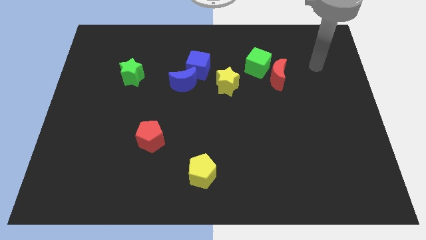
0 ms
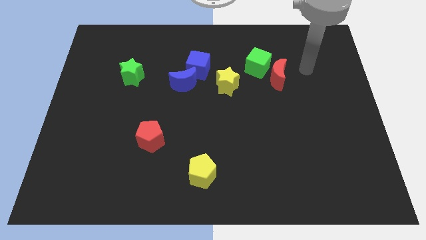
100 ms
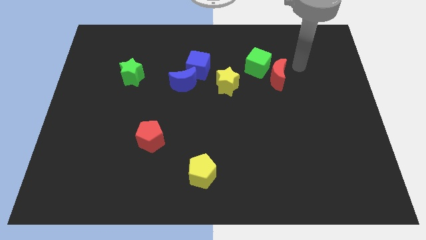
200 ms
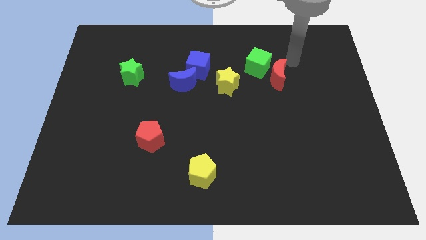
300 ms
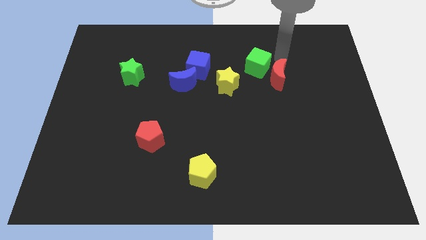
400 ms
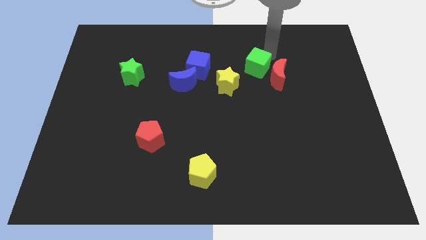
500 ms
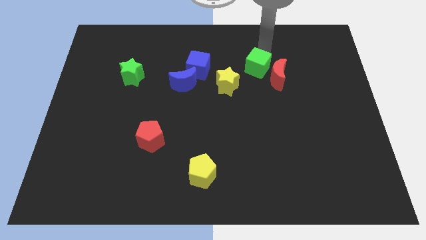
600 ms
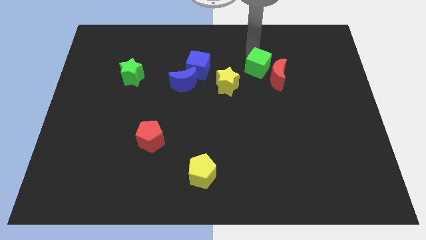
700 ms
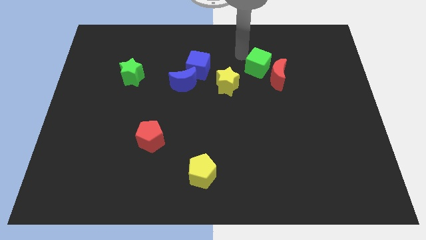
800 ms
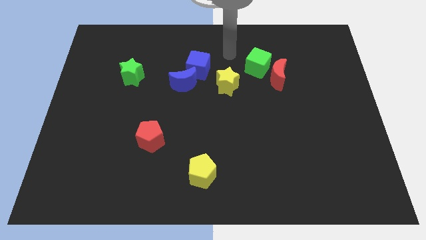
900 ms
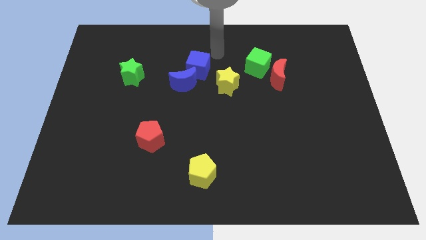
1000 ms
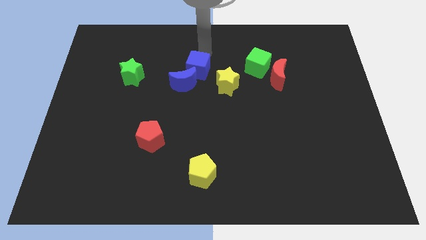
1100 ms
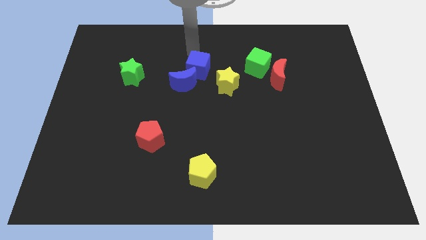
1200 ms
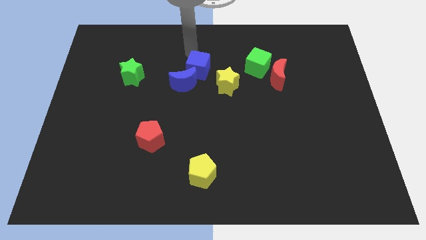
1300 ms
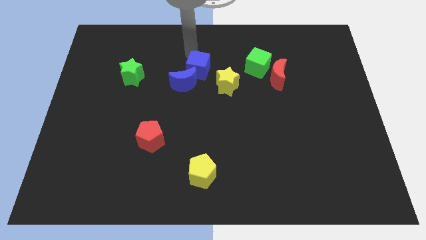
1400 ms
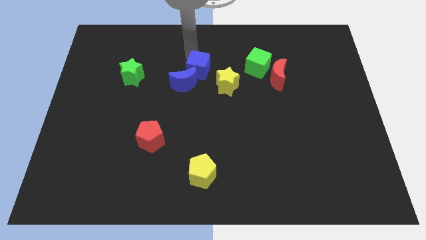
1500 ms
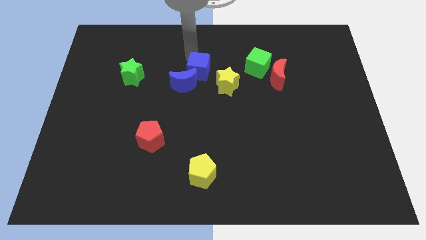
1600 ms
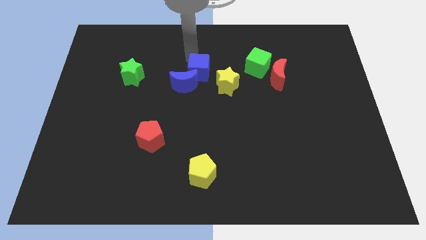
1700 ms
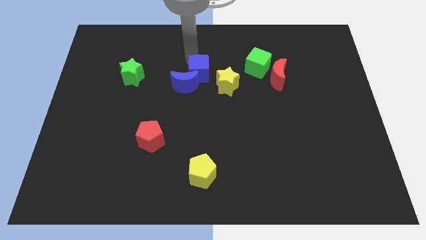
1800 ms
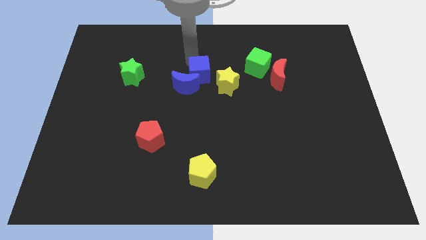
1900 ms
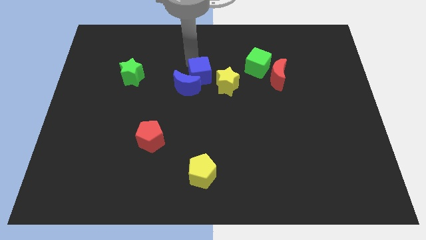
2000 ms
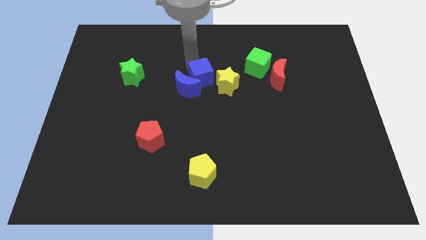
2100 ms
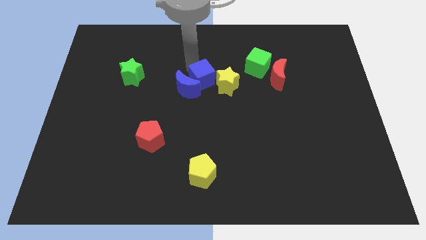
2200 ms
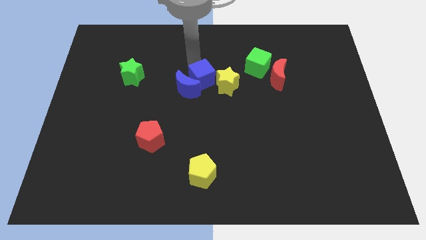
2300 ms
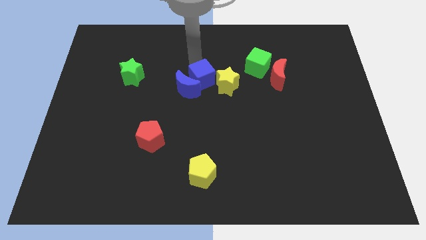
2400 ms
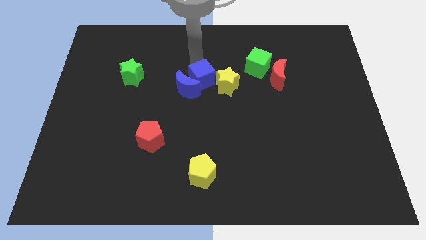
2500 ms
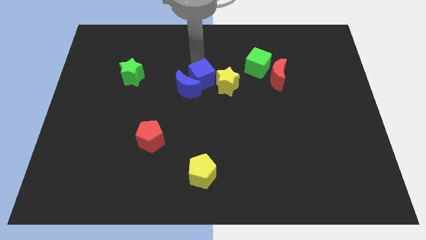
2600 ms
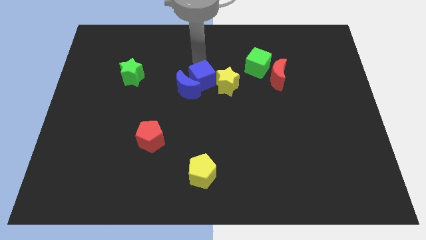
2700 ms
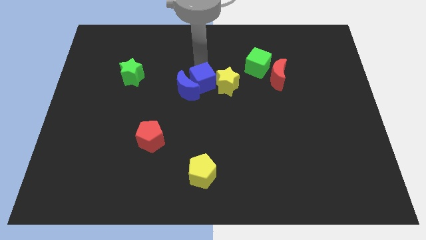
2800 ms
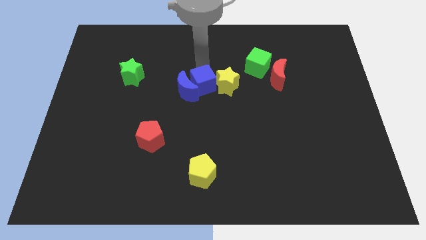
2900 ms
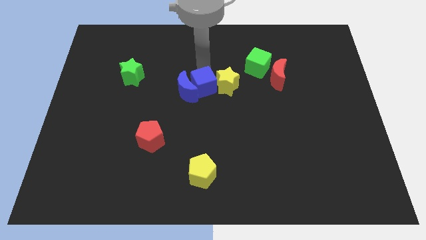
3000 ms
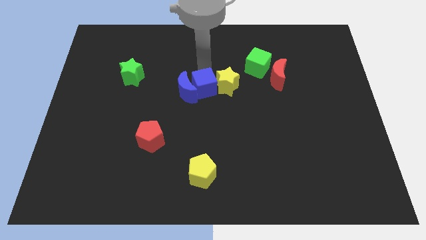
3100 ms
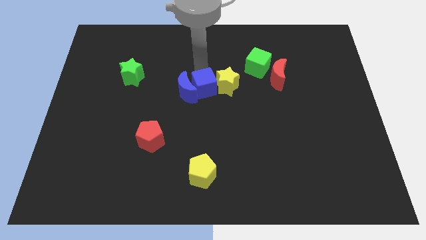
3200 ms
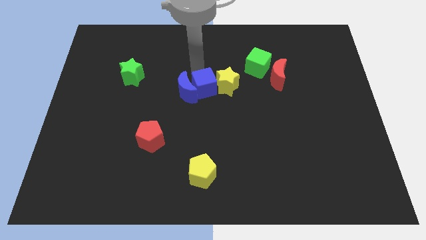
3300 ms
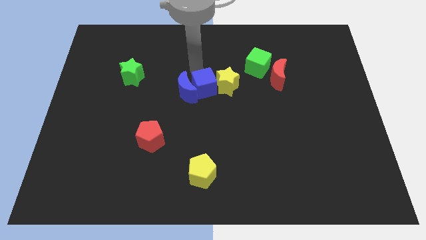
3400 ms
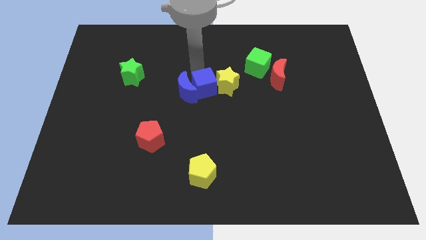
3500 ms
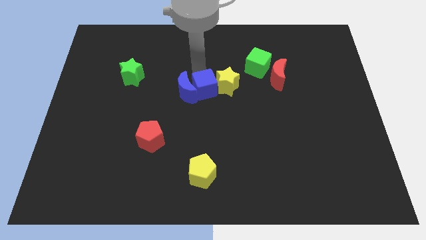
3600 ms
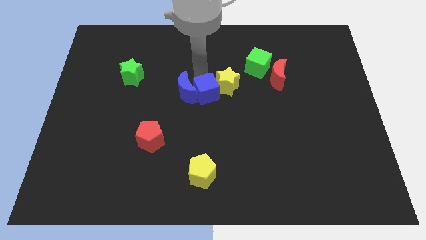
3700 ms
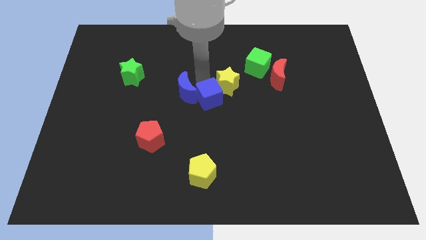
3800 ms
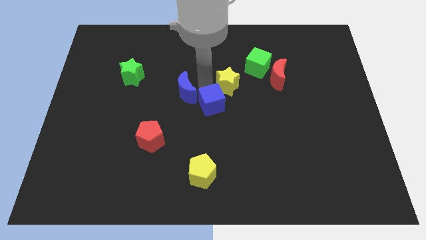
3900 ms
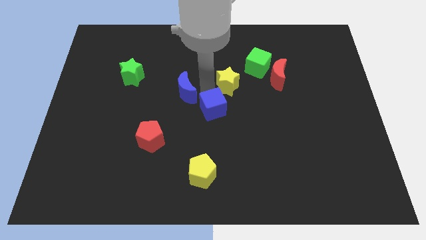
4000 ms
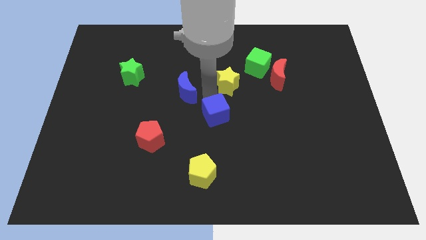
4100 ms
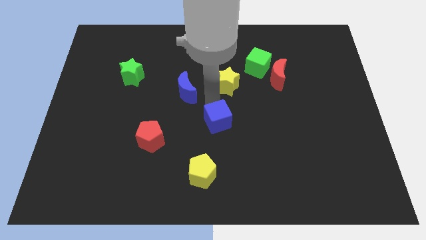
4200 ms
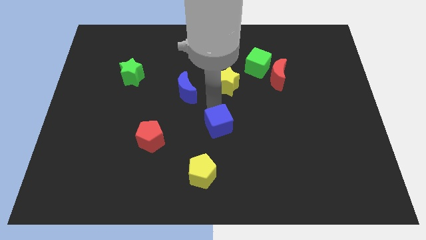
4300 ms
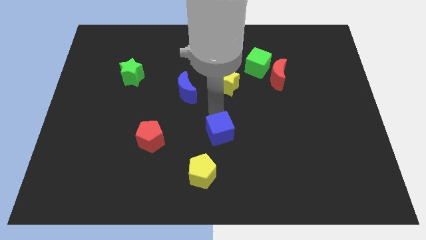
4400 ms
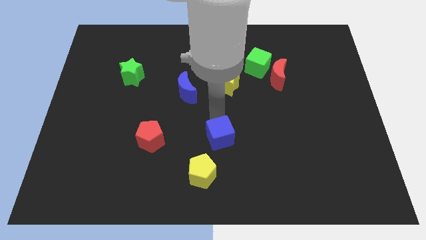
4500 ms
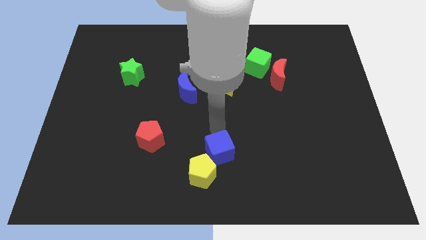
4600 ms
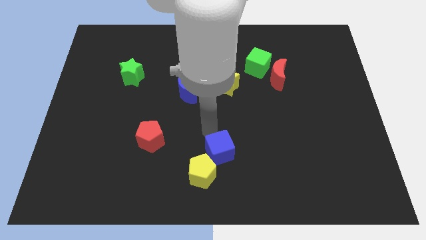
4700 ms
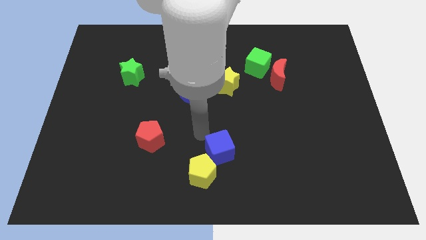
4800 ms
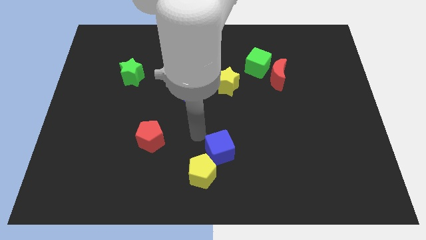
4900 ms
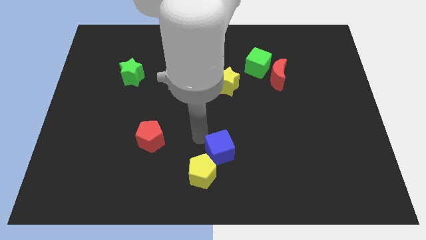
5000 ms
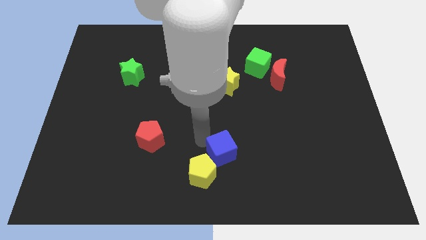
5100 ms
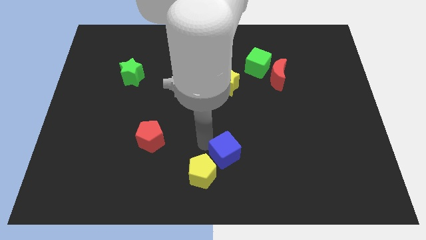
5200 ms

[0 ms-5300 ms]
slide the blue cube to the right side of the yellow pentagon

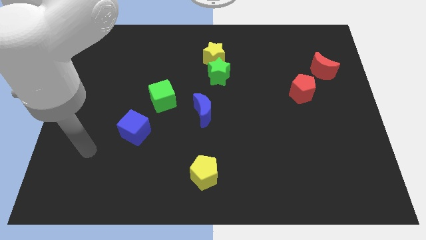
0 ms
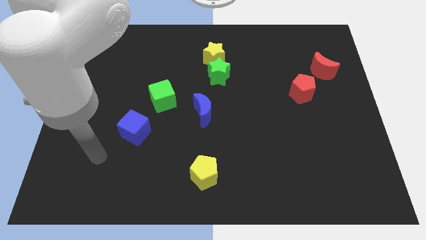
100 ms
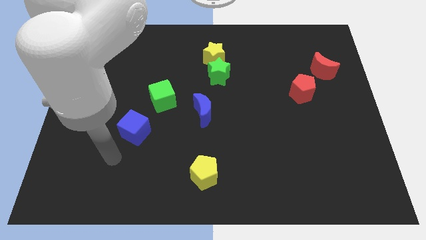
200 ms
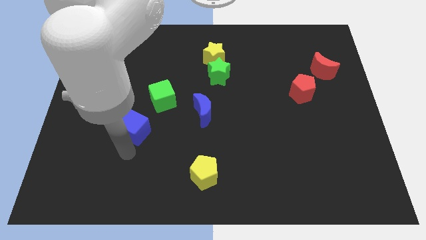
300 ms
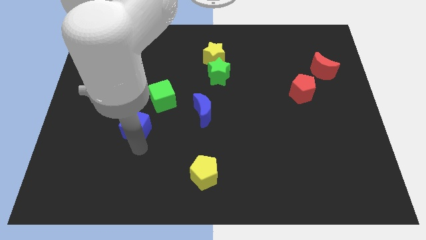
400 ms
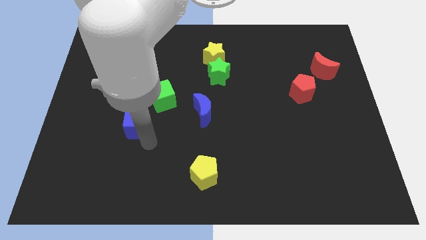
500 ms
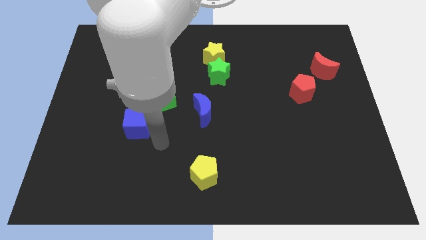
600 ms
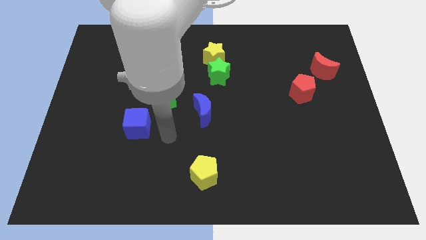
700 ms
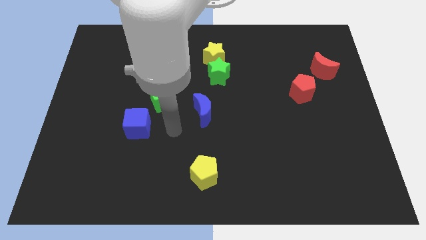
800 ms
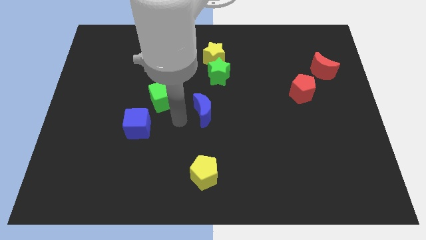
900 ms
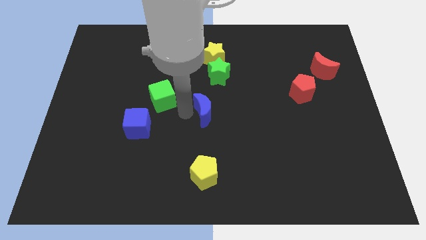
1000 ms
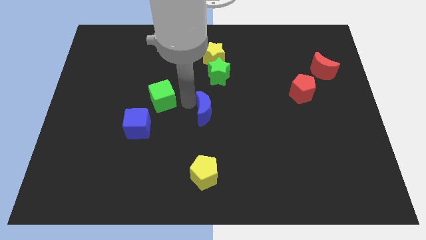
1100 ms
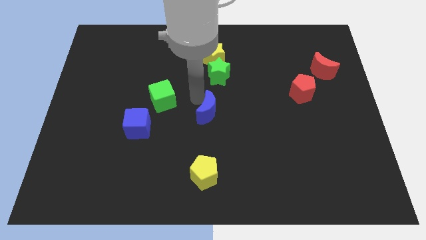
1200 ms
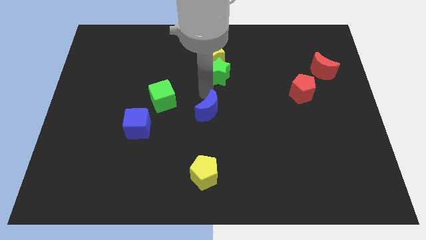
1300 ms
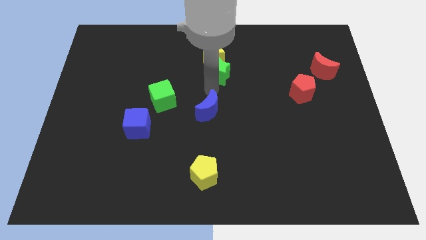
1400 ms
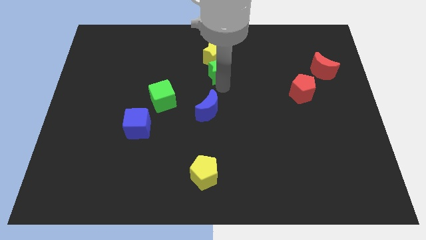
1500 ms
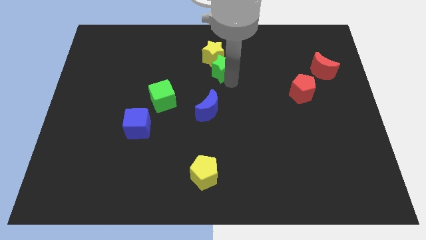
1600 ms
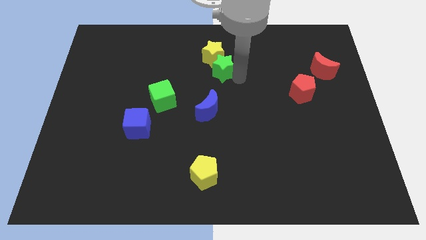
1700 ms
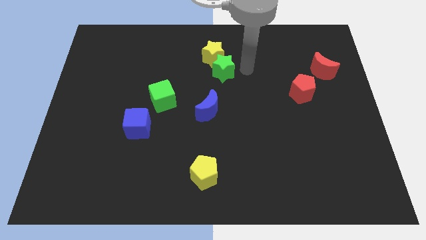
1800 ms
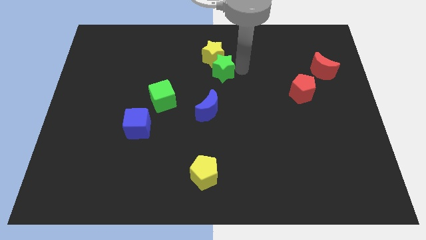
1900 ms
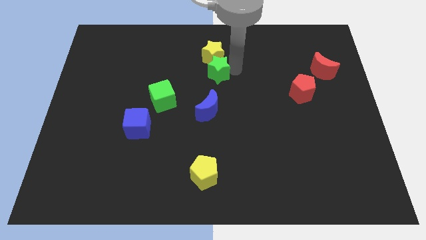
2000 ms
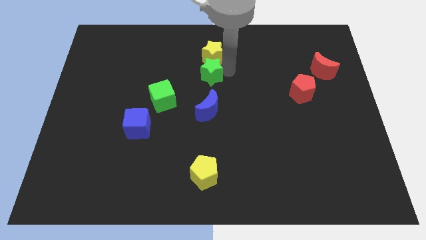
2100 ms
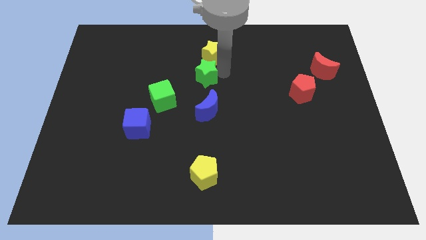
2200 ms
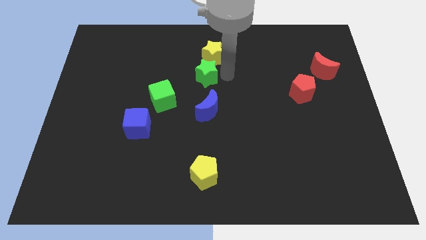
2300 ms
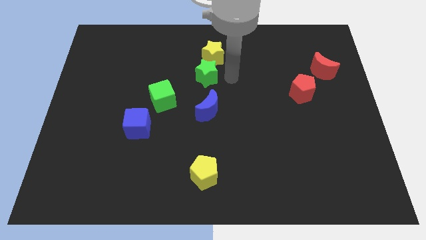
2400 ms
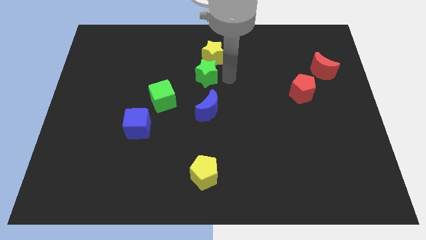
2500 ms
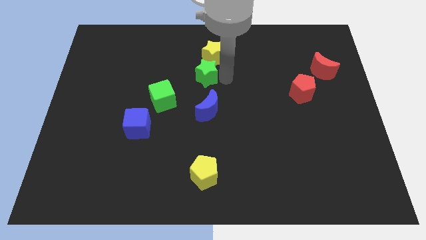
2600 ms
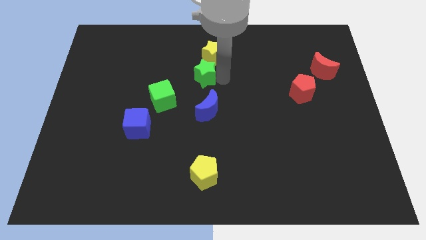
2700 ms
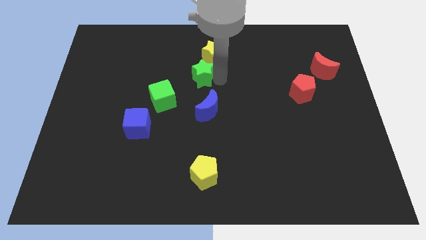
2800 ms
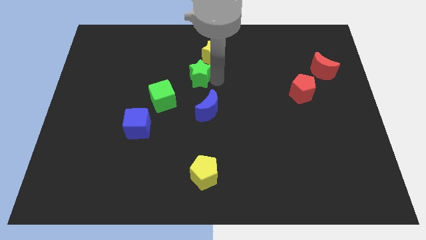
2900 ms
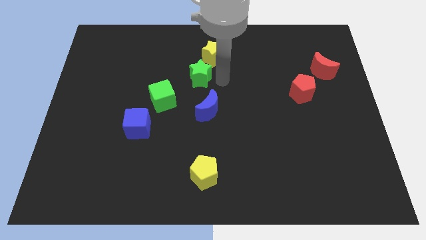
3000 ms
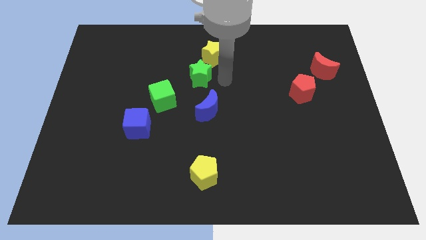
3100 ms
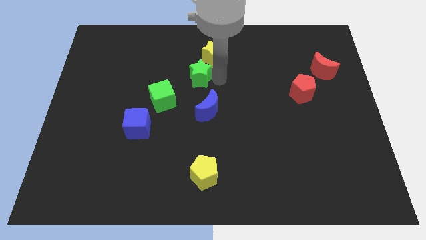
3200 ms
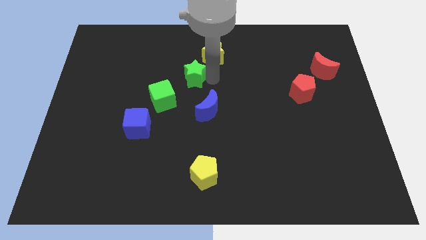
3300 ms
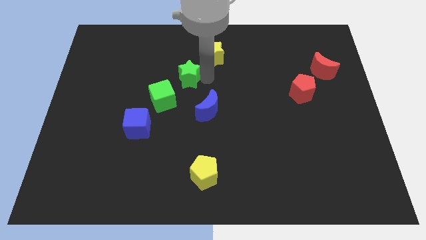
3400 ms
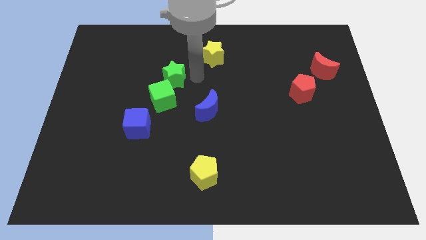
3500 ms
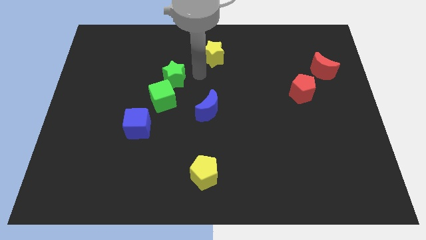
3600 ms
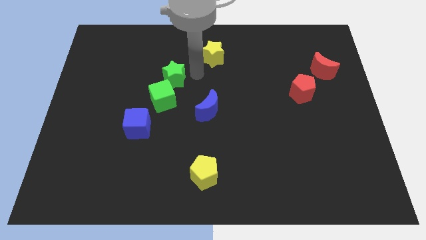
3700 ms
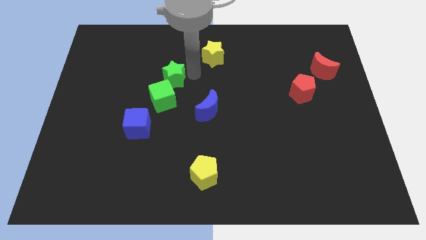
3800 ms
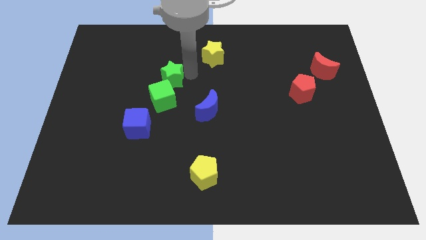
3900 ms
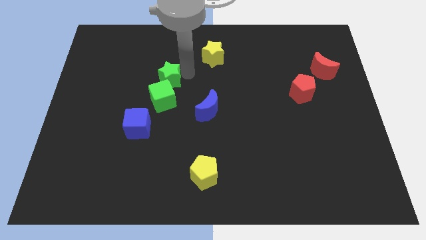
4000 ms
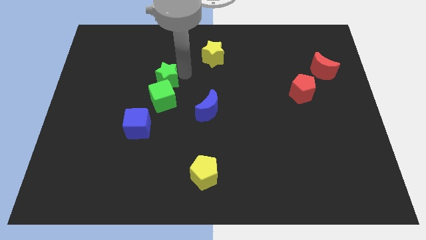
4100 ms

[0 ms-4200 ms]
move the green star to the top left side of the green cube
